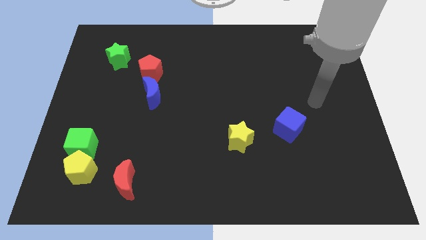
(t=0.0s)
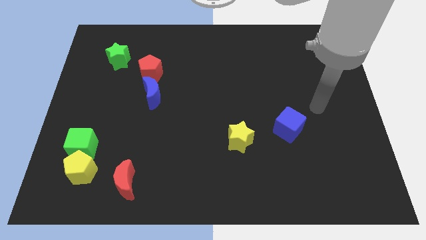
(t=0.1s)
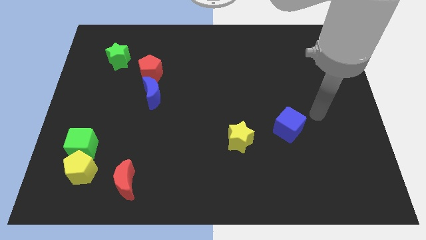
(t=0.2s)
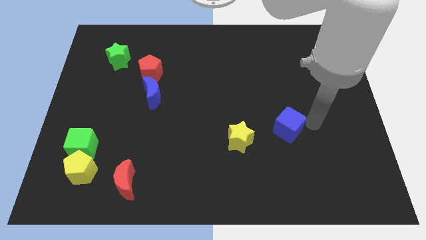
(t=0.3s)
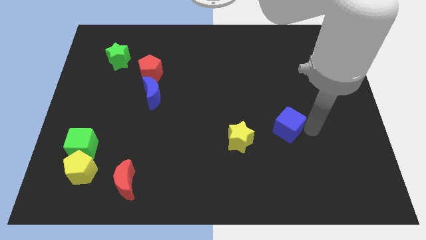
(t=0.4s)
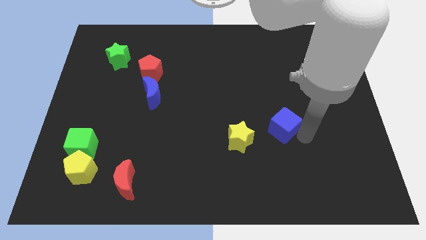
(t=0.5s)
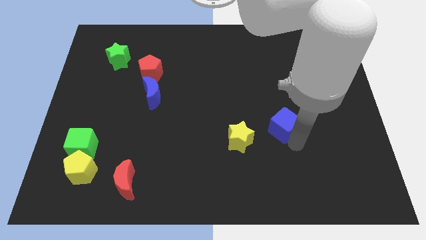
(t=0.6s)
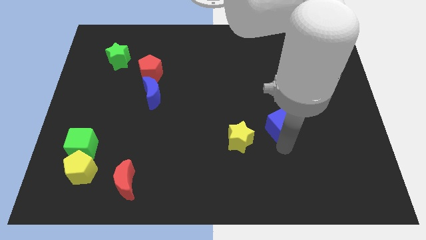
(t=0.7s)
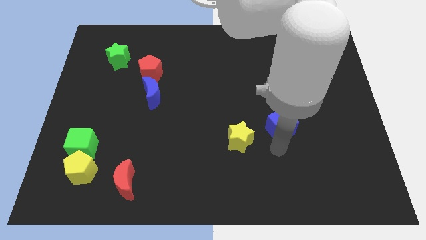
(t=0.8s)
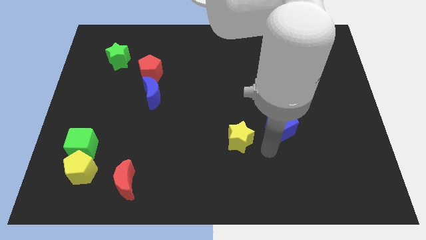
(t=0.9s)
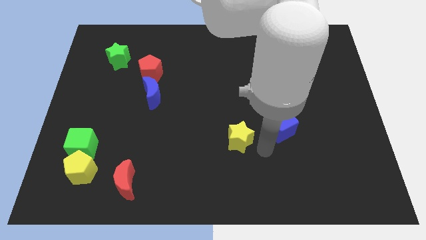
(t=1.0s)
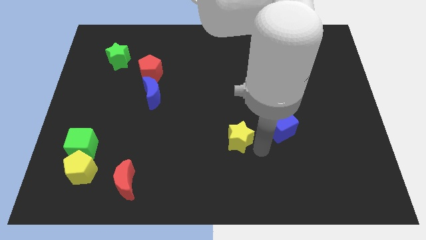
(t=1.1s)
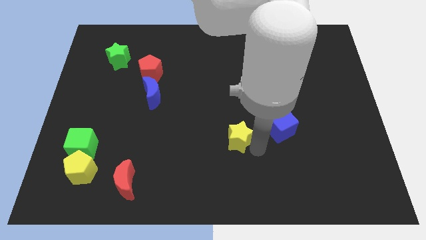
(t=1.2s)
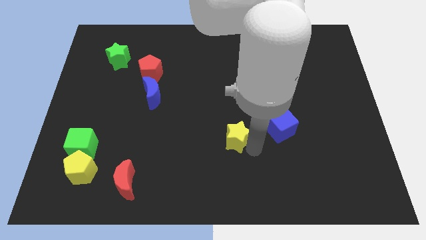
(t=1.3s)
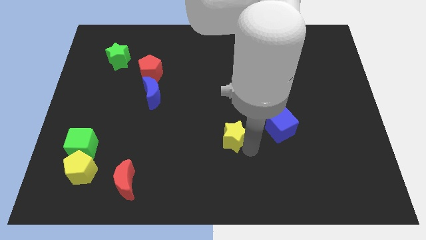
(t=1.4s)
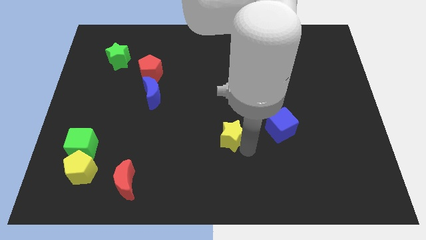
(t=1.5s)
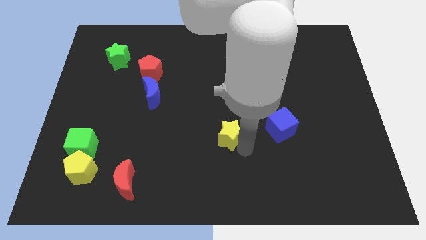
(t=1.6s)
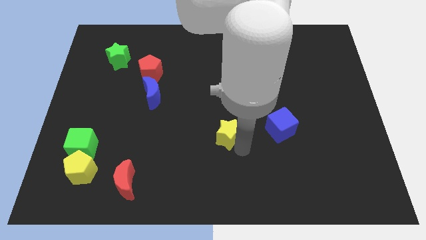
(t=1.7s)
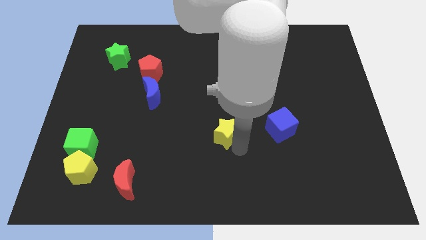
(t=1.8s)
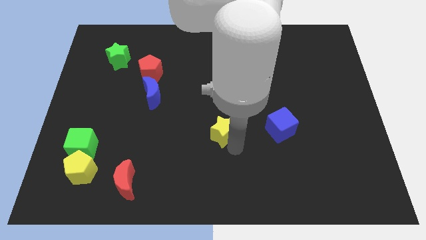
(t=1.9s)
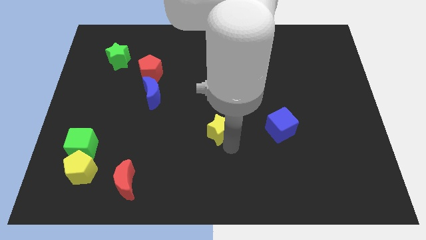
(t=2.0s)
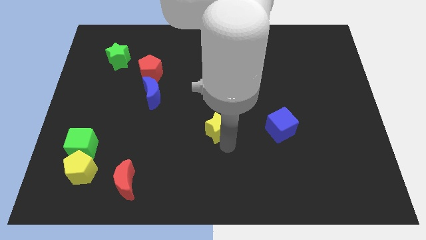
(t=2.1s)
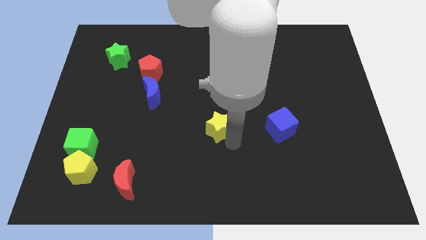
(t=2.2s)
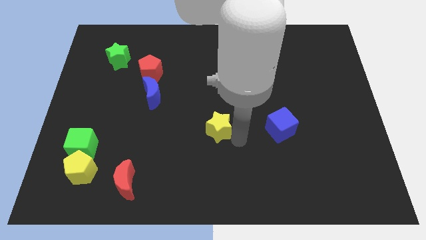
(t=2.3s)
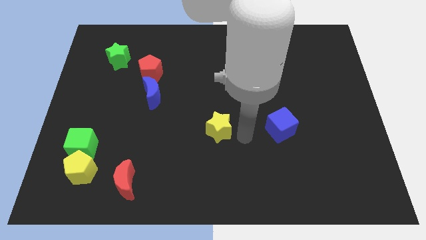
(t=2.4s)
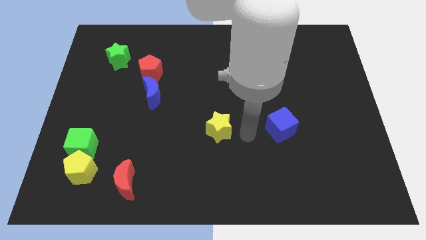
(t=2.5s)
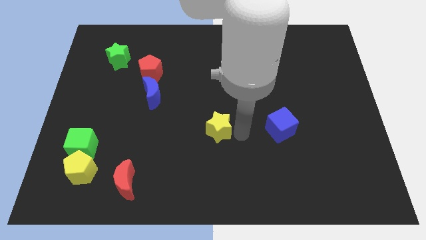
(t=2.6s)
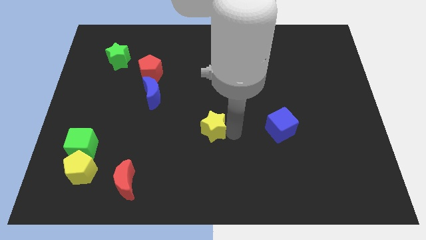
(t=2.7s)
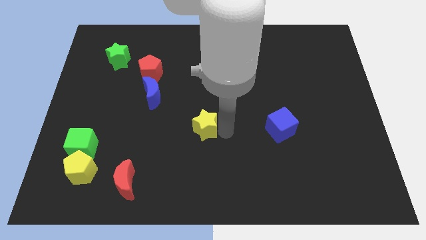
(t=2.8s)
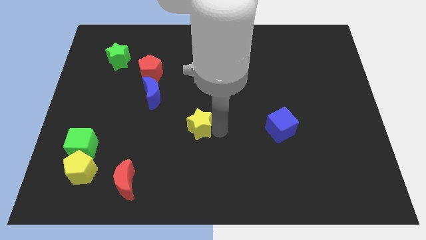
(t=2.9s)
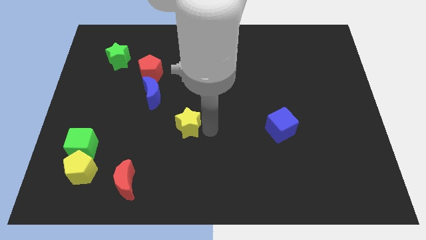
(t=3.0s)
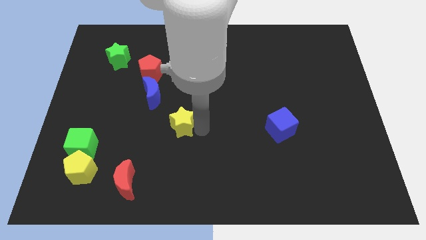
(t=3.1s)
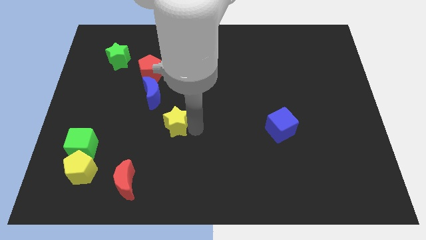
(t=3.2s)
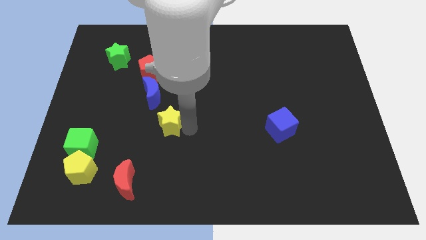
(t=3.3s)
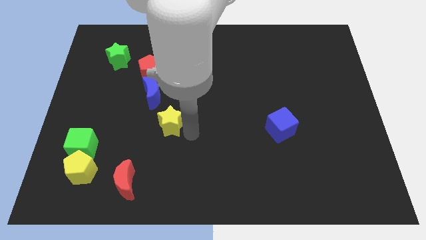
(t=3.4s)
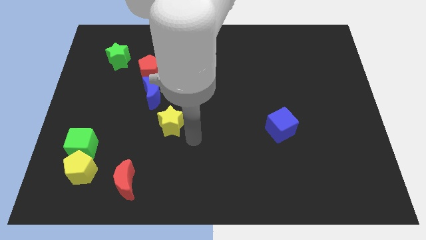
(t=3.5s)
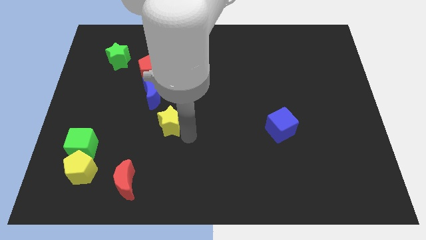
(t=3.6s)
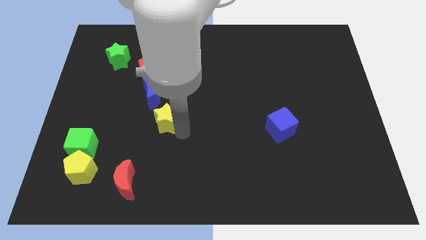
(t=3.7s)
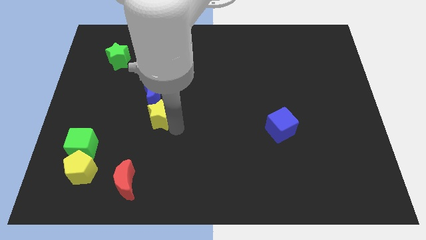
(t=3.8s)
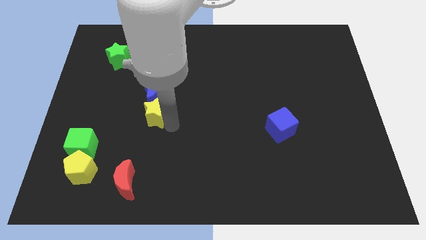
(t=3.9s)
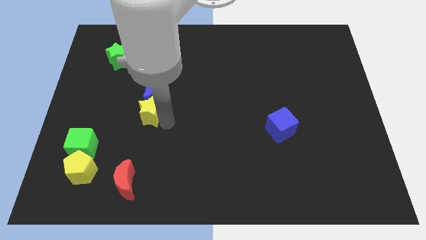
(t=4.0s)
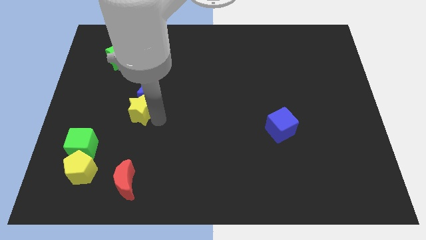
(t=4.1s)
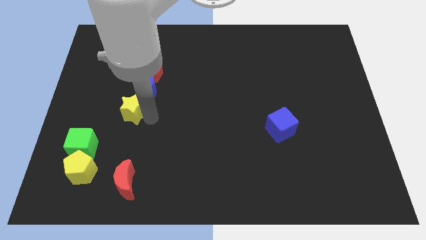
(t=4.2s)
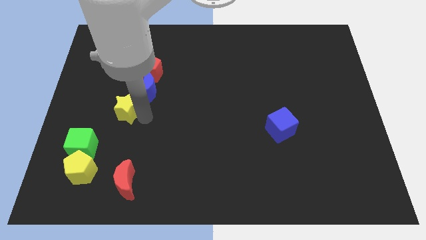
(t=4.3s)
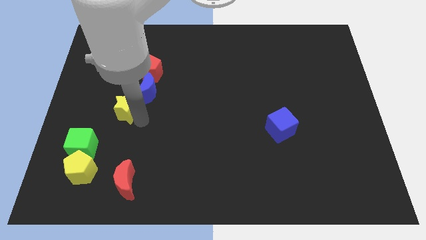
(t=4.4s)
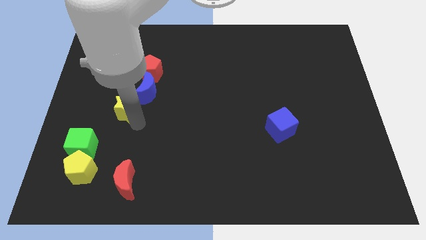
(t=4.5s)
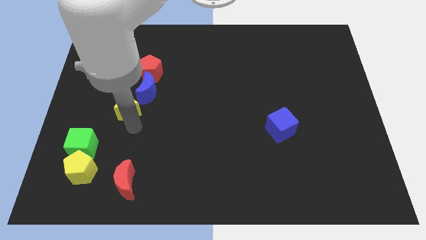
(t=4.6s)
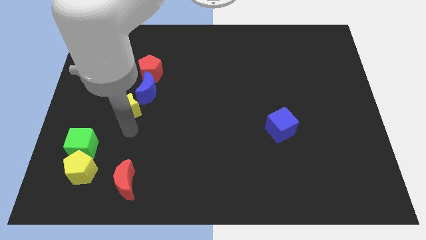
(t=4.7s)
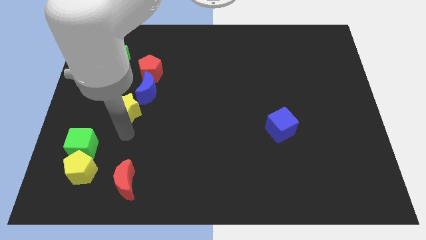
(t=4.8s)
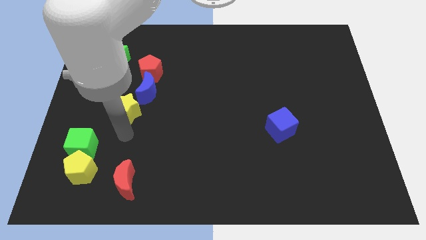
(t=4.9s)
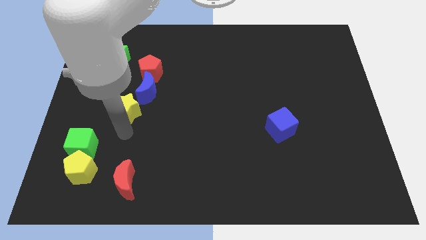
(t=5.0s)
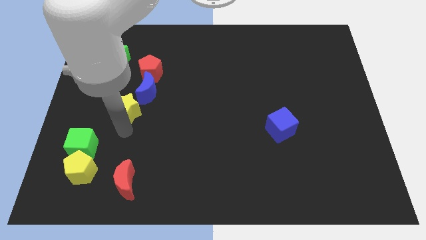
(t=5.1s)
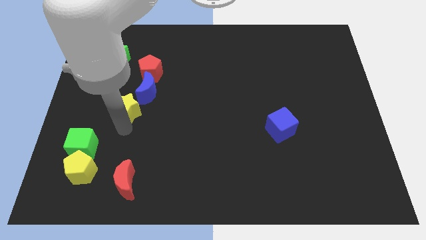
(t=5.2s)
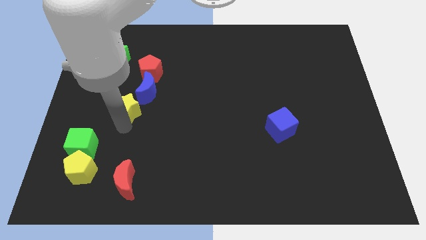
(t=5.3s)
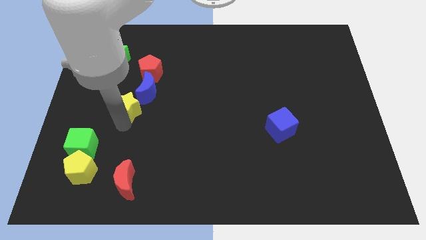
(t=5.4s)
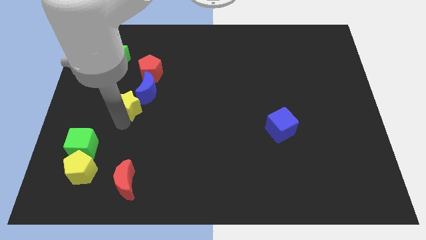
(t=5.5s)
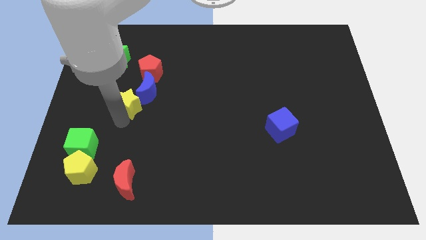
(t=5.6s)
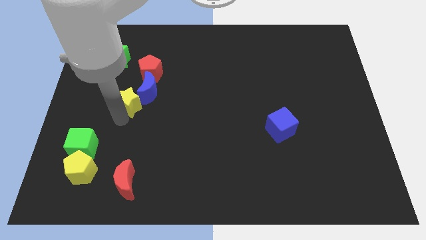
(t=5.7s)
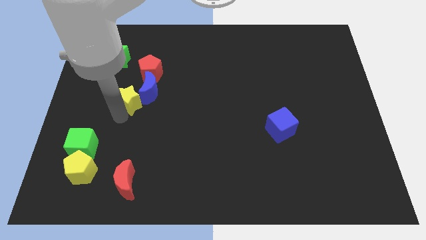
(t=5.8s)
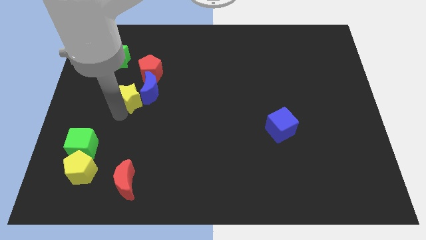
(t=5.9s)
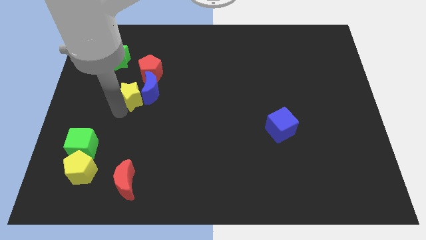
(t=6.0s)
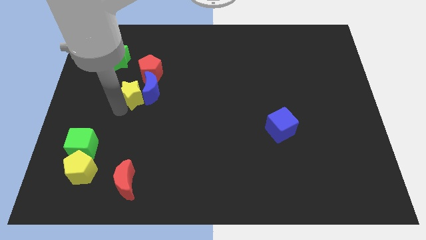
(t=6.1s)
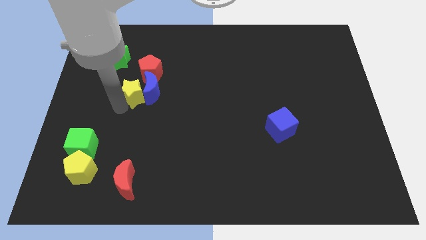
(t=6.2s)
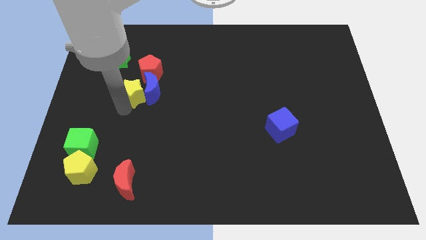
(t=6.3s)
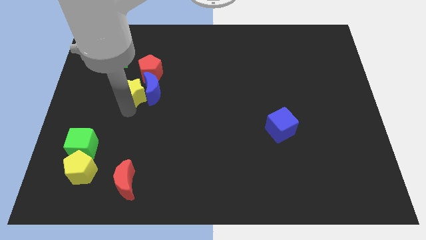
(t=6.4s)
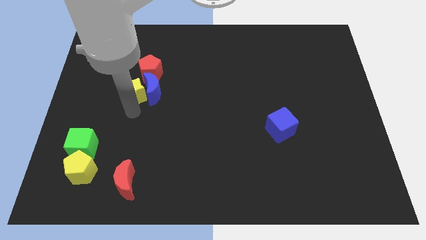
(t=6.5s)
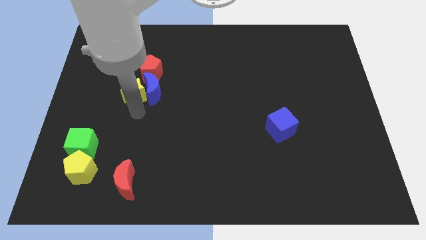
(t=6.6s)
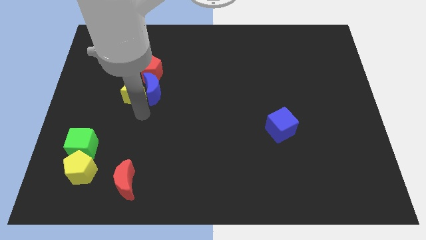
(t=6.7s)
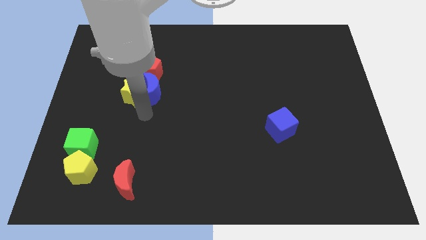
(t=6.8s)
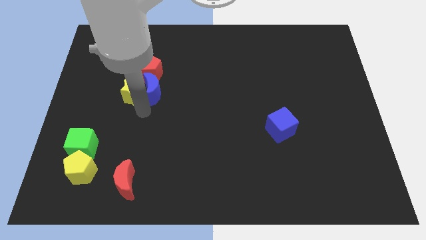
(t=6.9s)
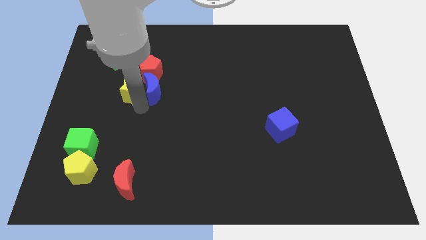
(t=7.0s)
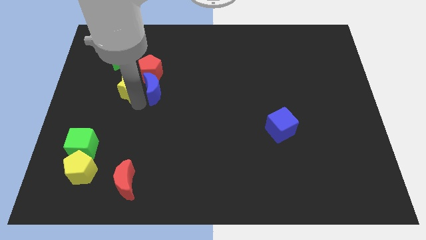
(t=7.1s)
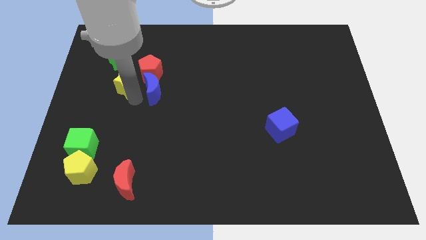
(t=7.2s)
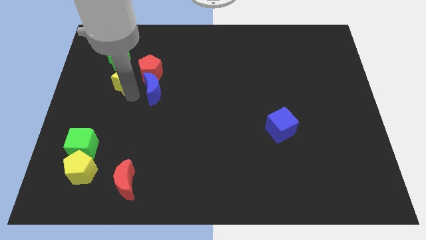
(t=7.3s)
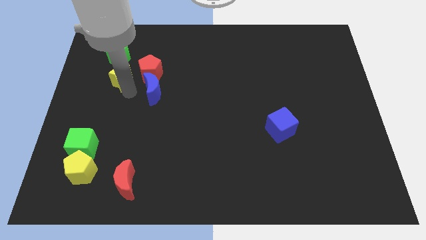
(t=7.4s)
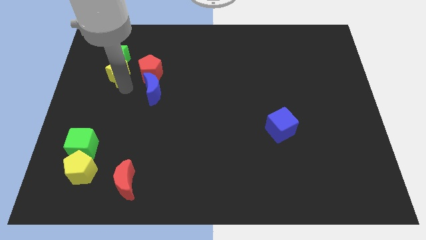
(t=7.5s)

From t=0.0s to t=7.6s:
put the yellow star to the green star
